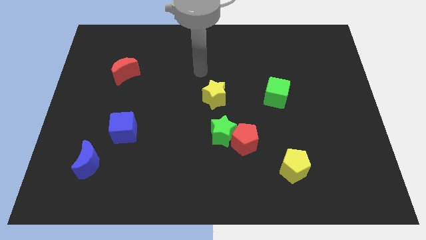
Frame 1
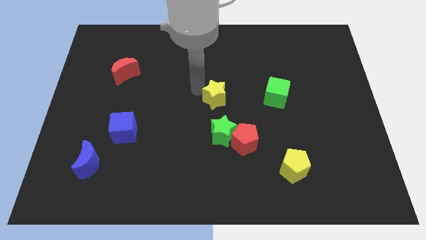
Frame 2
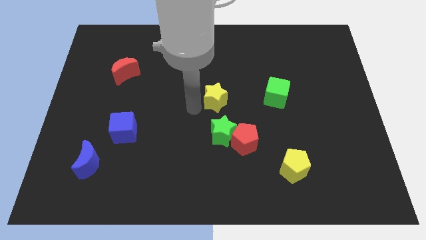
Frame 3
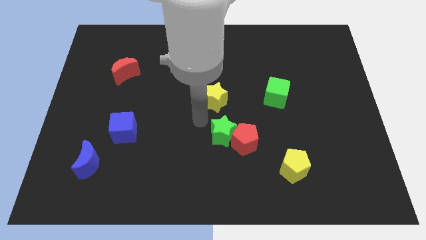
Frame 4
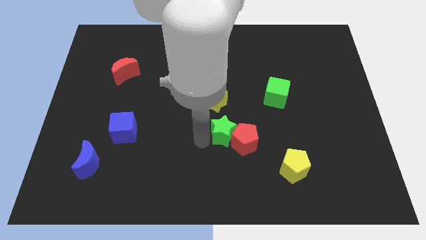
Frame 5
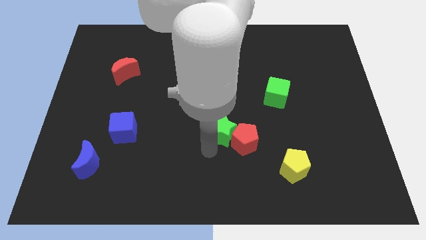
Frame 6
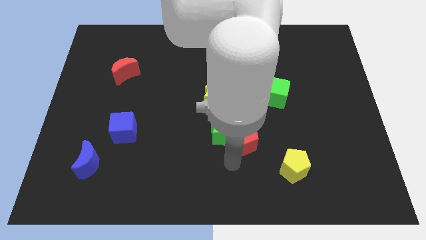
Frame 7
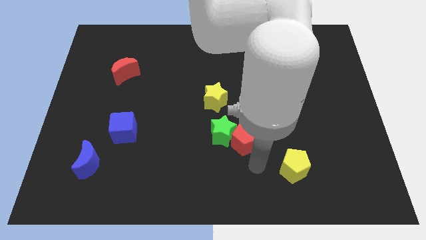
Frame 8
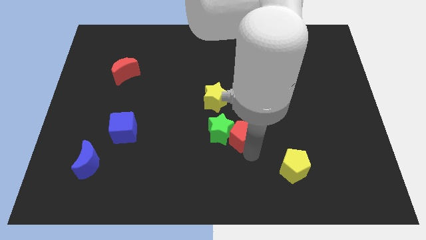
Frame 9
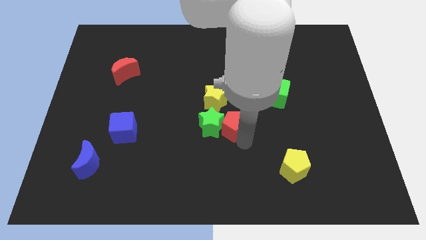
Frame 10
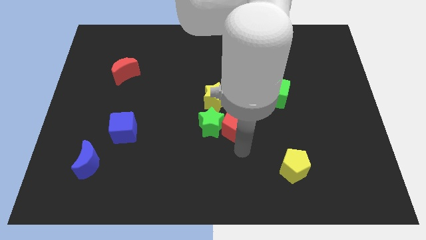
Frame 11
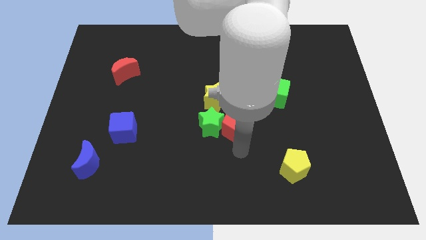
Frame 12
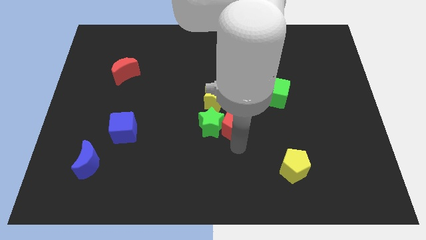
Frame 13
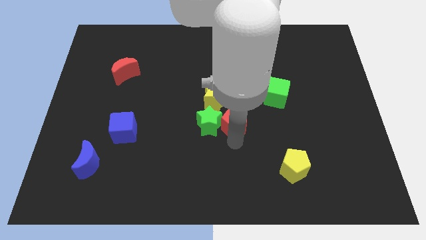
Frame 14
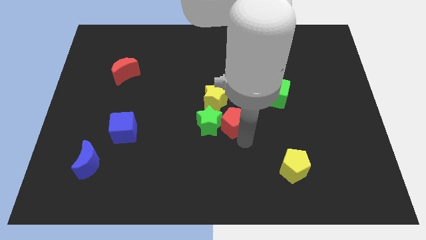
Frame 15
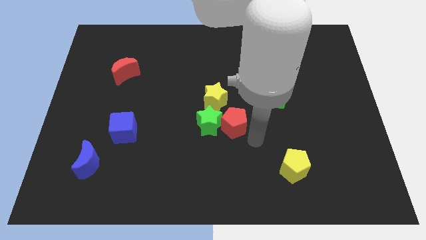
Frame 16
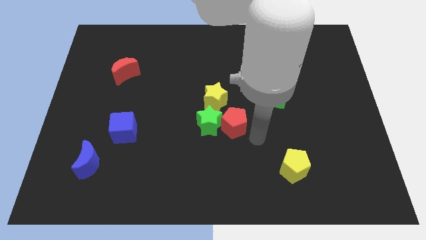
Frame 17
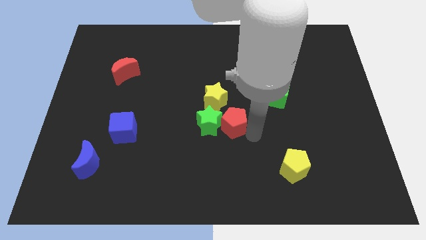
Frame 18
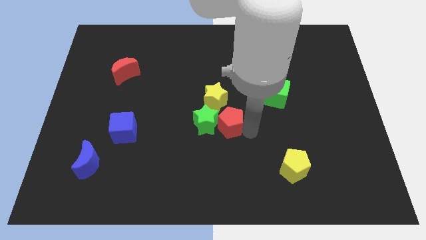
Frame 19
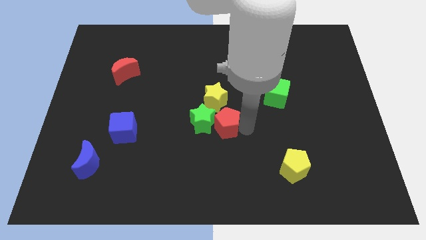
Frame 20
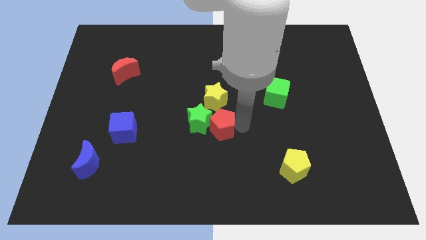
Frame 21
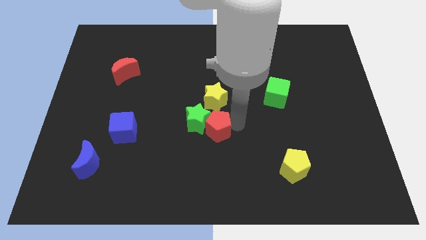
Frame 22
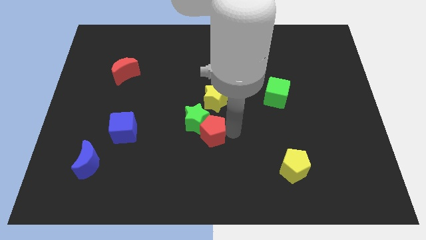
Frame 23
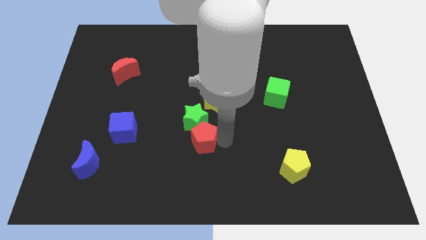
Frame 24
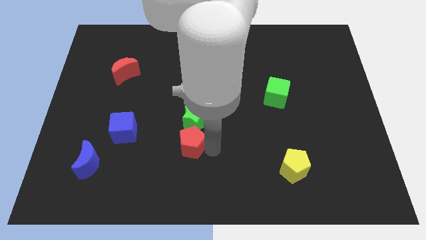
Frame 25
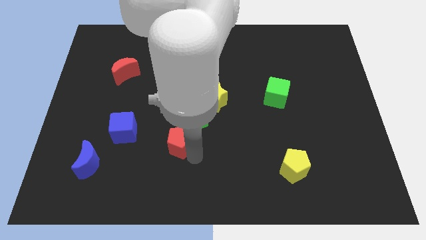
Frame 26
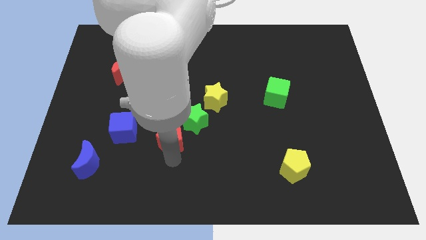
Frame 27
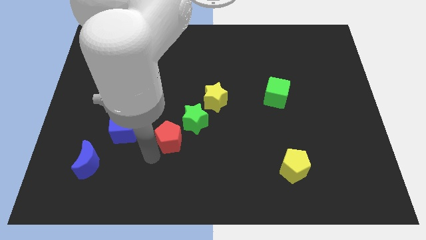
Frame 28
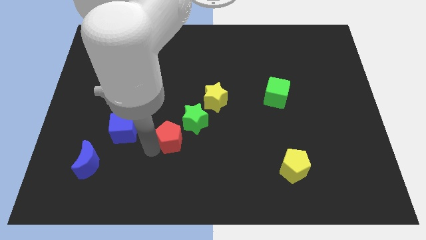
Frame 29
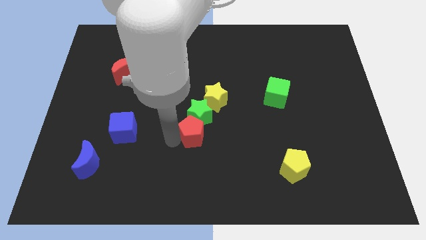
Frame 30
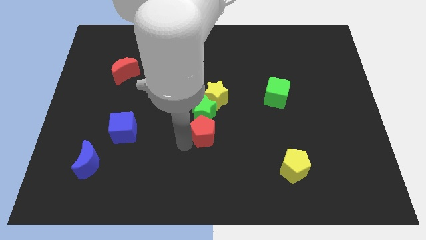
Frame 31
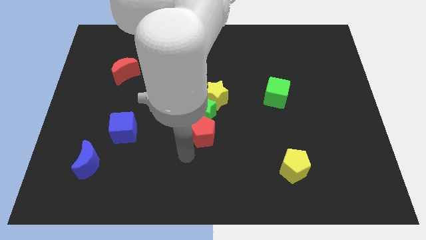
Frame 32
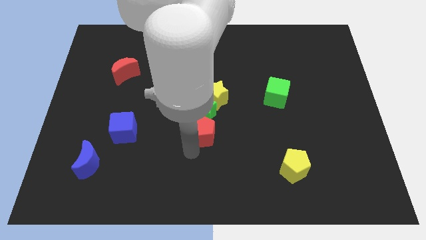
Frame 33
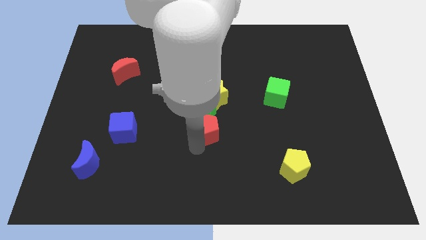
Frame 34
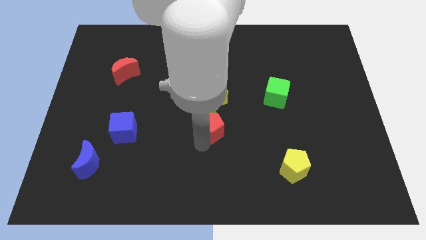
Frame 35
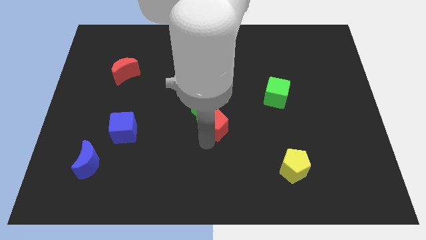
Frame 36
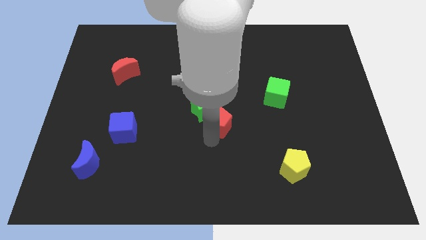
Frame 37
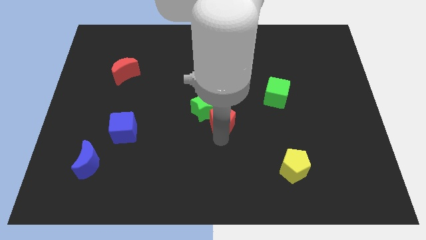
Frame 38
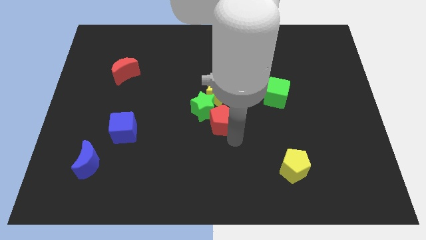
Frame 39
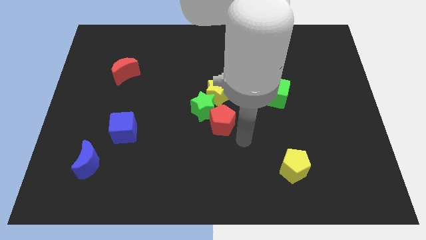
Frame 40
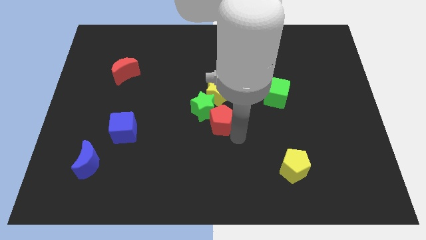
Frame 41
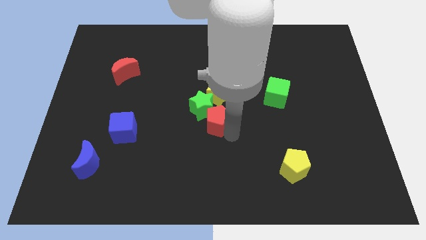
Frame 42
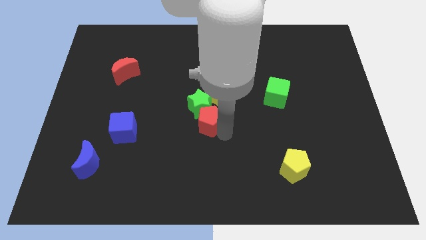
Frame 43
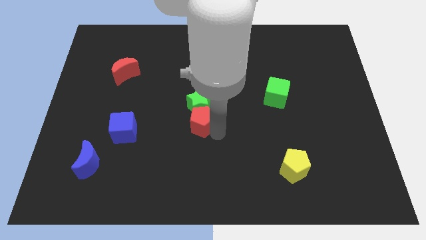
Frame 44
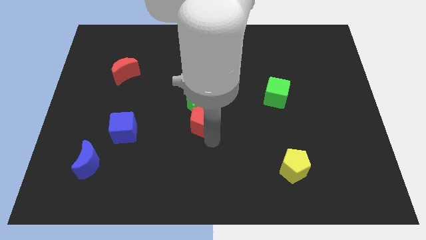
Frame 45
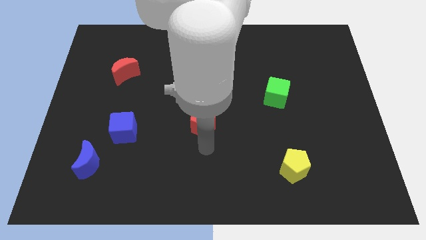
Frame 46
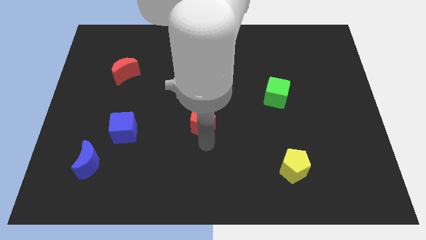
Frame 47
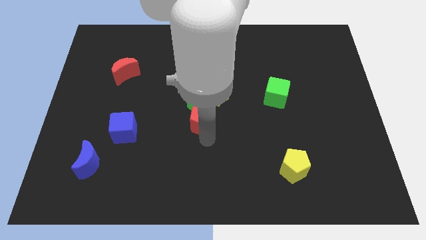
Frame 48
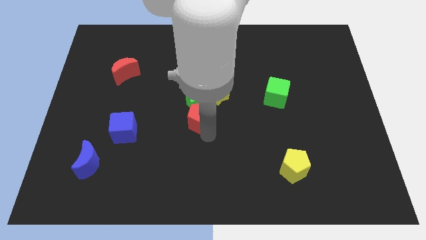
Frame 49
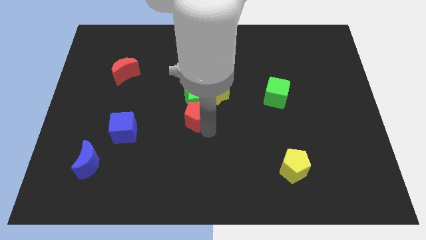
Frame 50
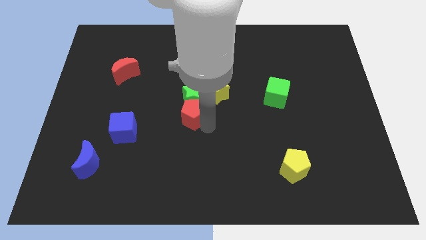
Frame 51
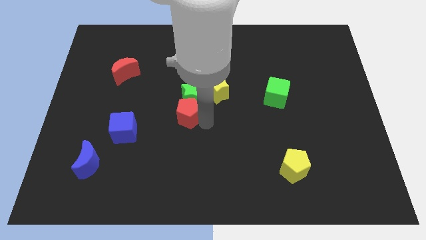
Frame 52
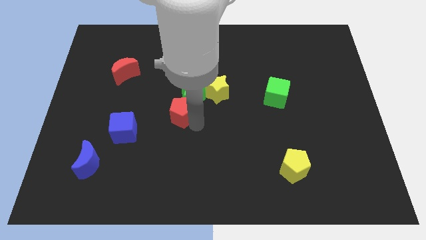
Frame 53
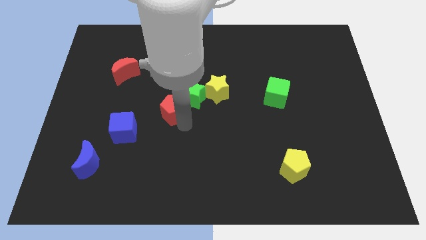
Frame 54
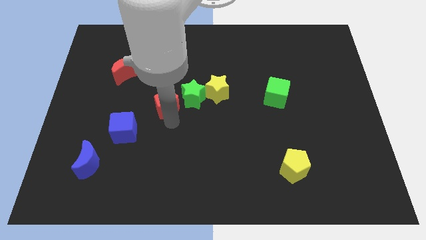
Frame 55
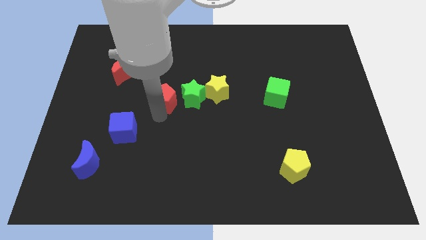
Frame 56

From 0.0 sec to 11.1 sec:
slide the red pentagon up and left diagonally

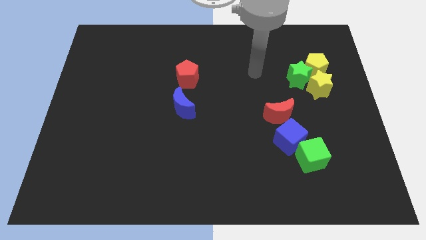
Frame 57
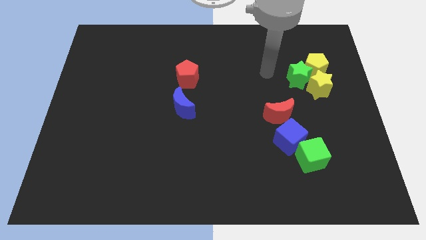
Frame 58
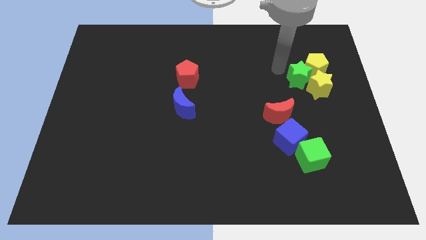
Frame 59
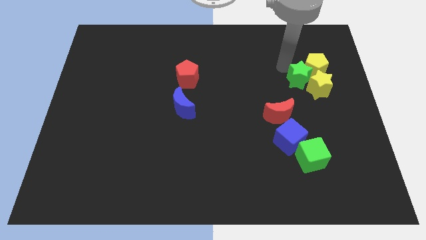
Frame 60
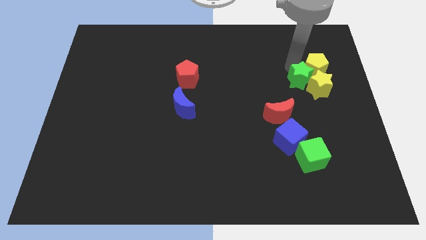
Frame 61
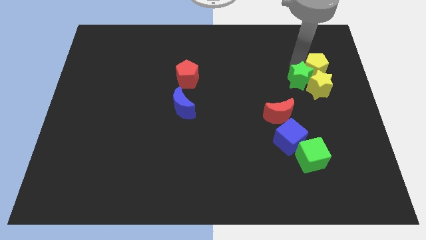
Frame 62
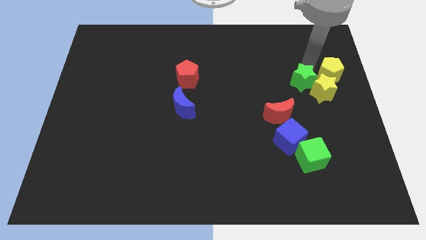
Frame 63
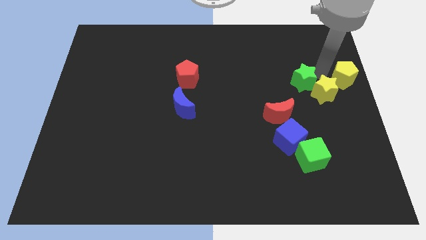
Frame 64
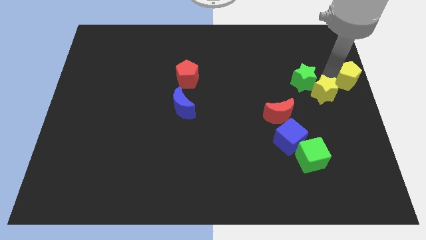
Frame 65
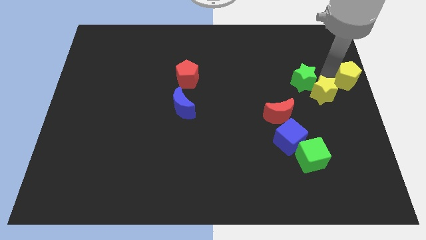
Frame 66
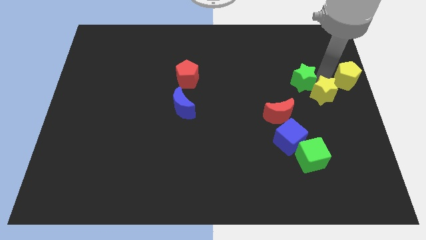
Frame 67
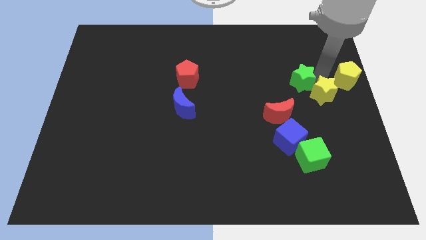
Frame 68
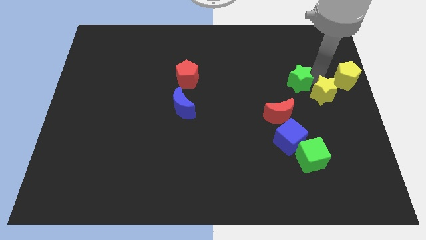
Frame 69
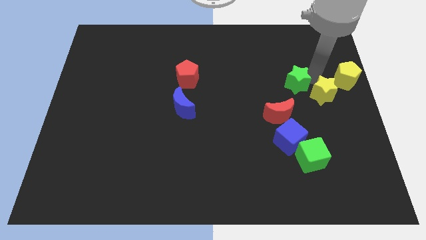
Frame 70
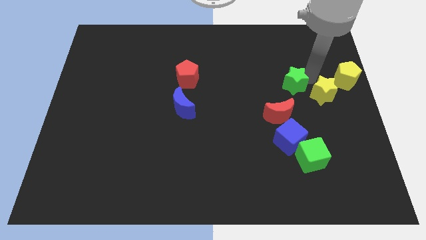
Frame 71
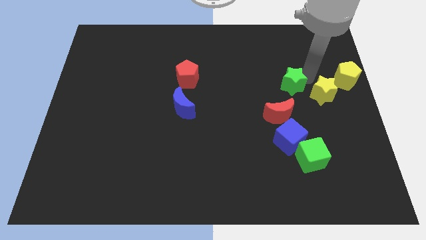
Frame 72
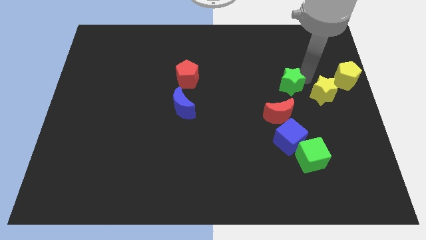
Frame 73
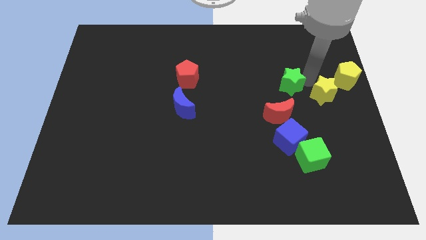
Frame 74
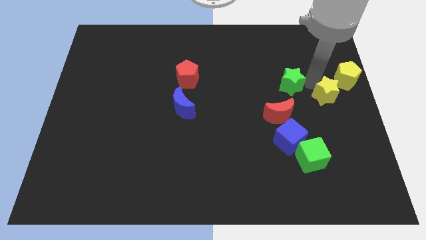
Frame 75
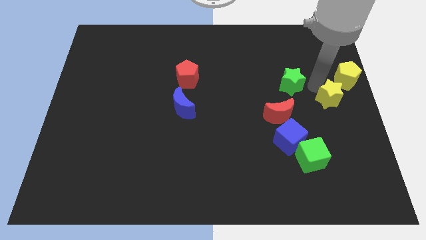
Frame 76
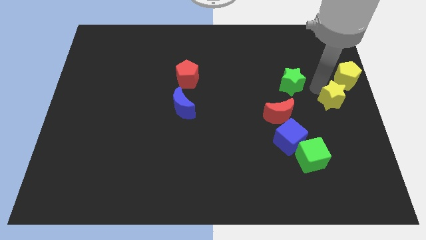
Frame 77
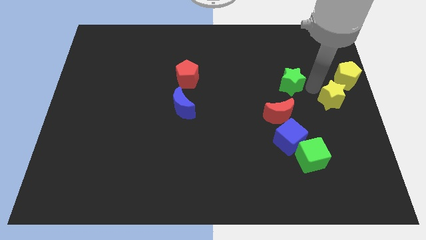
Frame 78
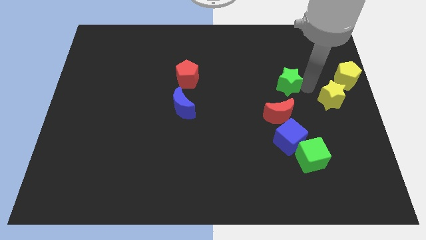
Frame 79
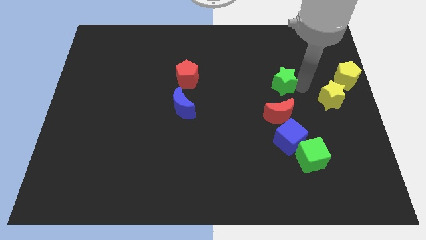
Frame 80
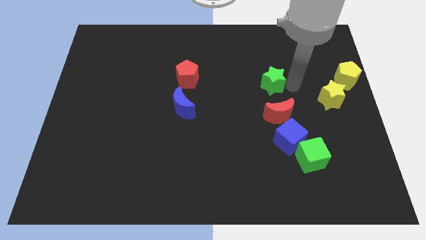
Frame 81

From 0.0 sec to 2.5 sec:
push the green star somewhat left
